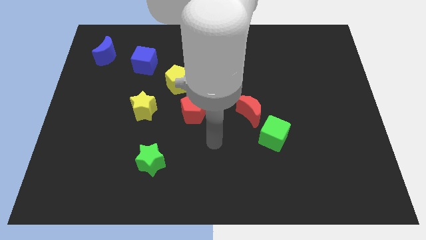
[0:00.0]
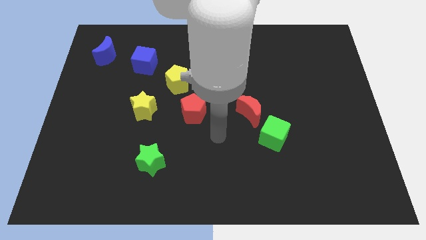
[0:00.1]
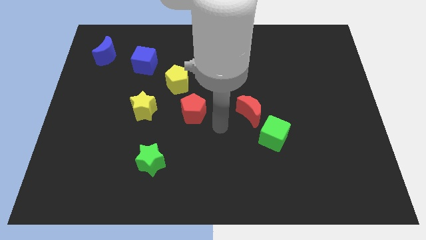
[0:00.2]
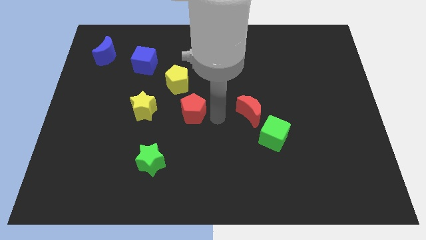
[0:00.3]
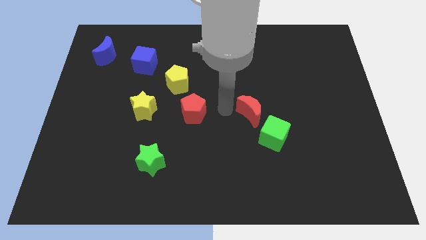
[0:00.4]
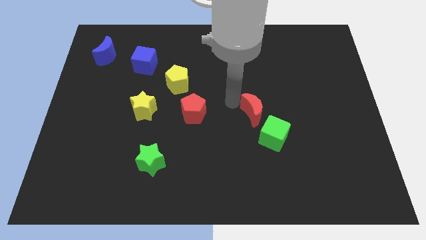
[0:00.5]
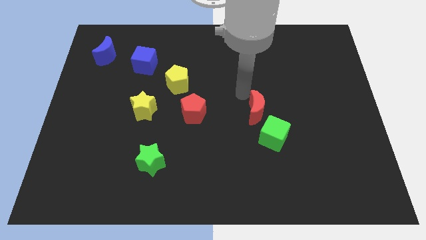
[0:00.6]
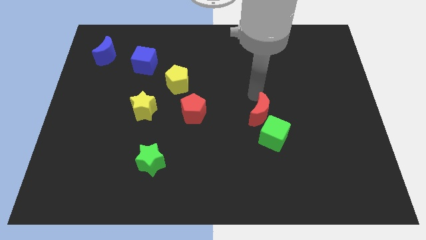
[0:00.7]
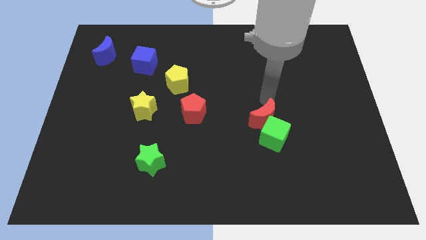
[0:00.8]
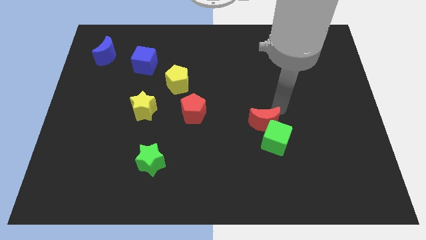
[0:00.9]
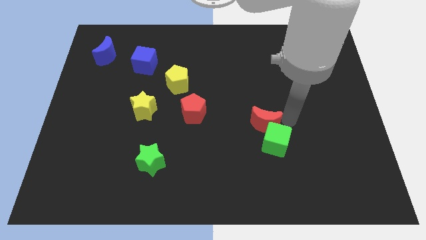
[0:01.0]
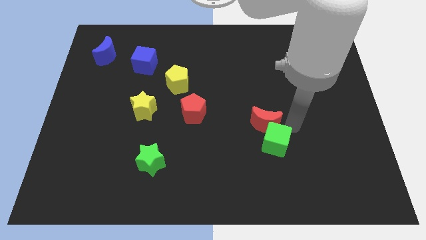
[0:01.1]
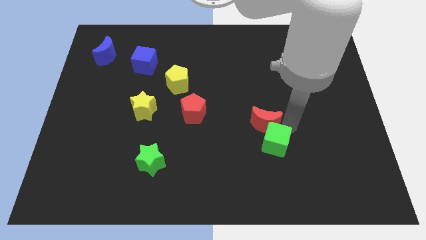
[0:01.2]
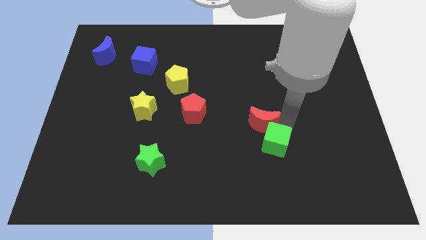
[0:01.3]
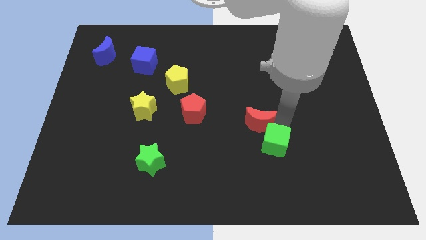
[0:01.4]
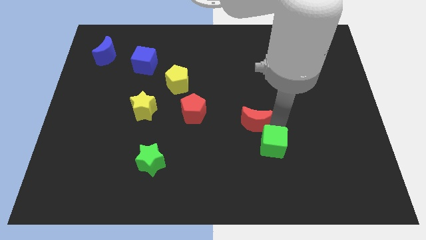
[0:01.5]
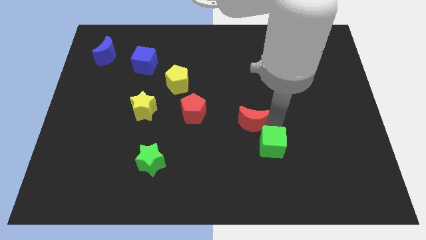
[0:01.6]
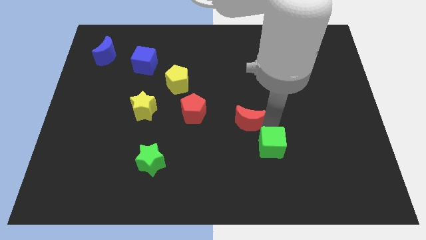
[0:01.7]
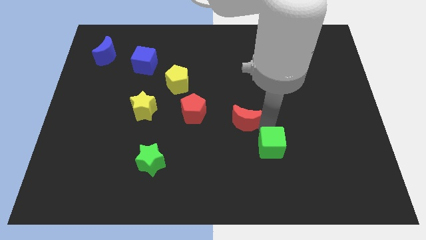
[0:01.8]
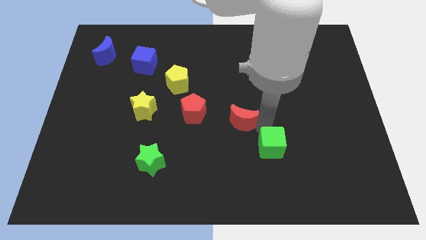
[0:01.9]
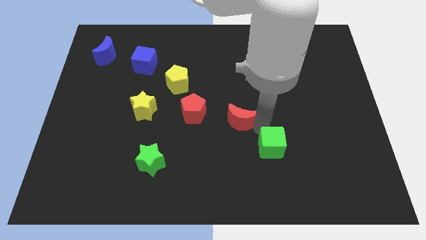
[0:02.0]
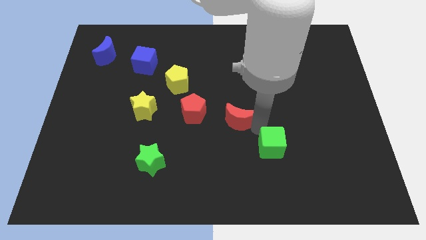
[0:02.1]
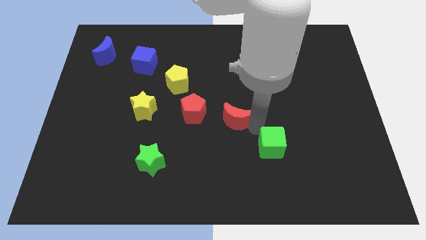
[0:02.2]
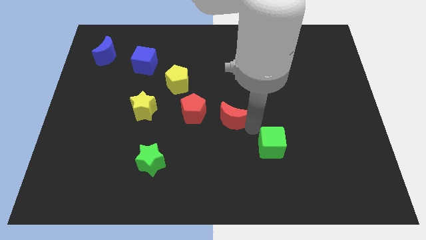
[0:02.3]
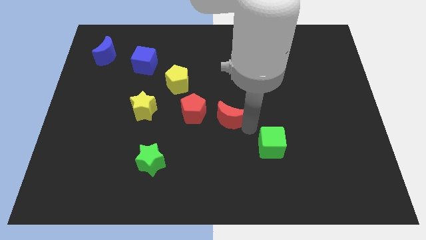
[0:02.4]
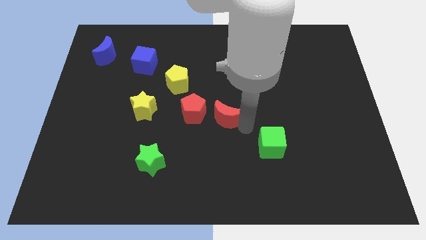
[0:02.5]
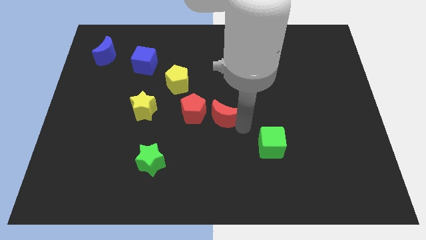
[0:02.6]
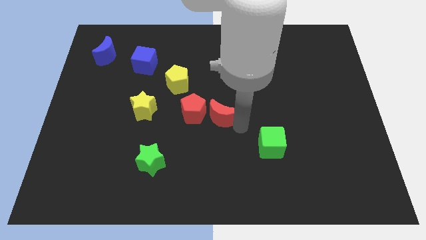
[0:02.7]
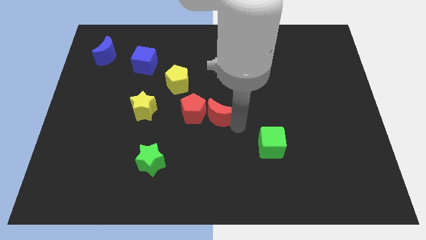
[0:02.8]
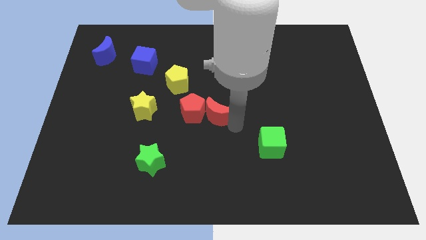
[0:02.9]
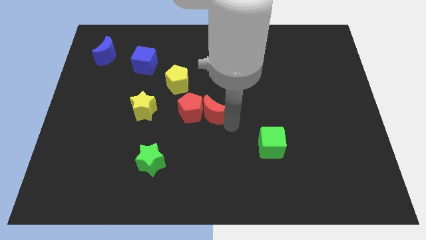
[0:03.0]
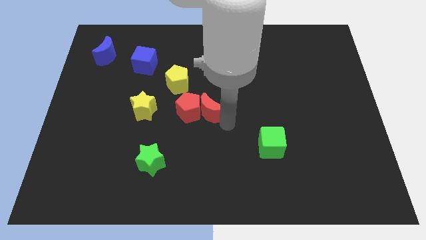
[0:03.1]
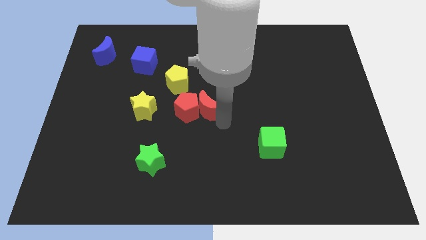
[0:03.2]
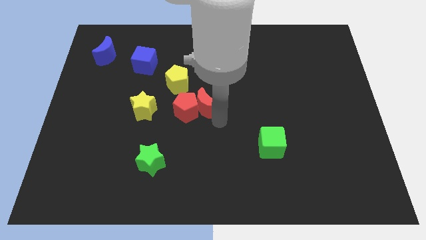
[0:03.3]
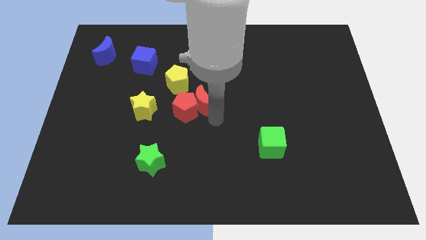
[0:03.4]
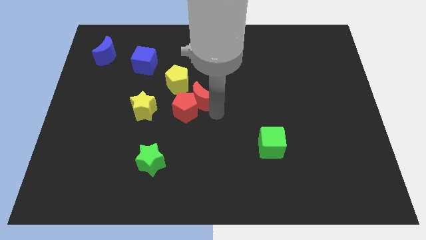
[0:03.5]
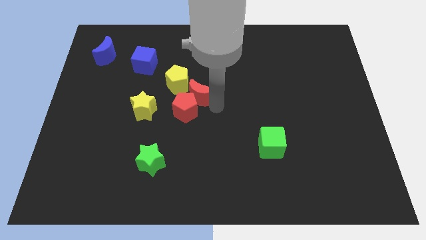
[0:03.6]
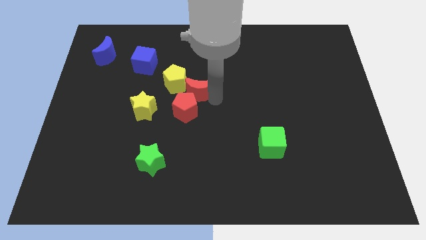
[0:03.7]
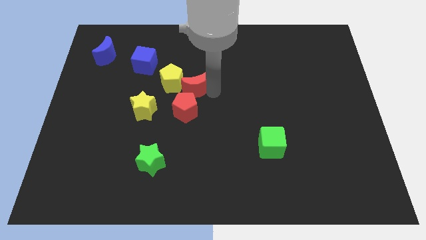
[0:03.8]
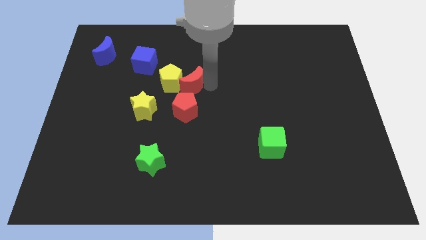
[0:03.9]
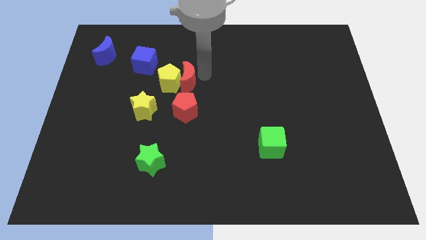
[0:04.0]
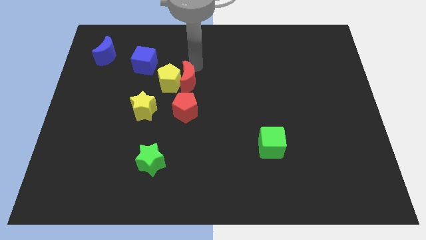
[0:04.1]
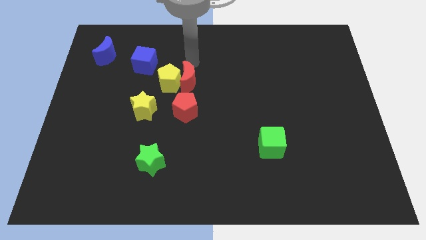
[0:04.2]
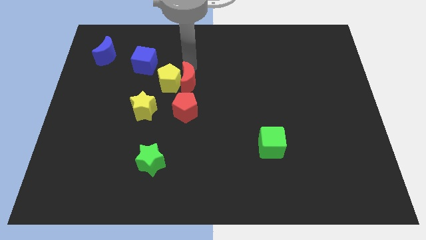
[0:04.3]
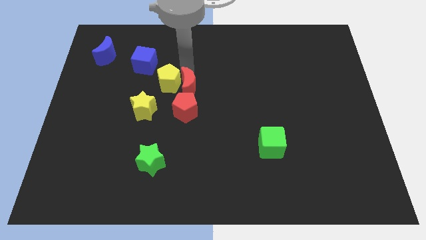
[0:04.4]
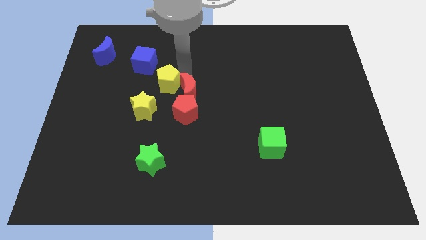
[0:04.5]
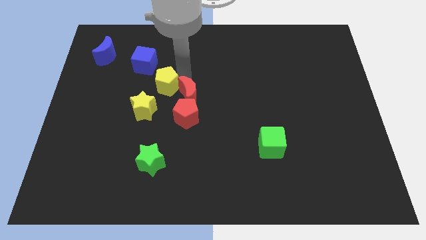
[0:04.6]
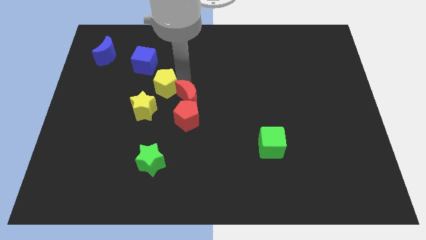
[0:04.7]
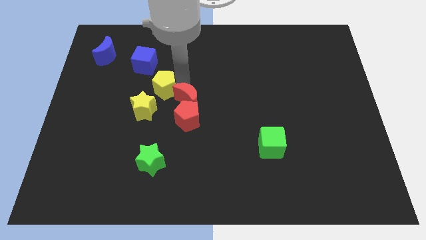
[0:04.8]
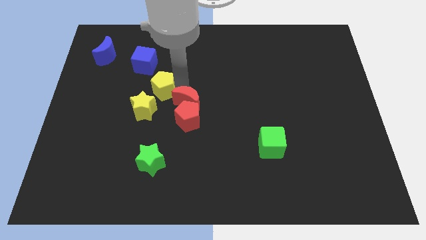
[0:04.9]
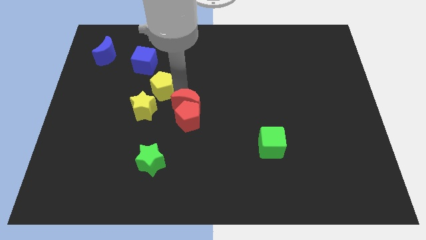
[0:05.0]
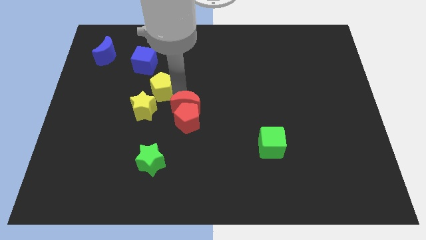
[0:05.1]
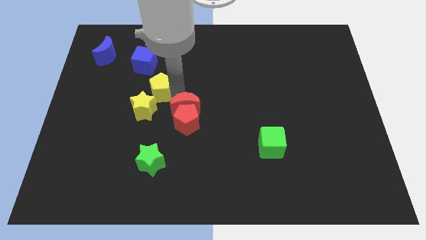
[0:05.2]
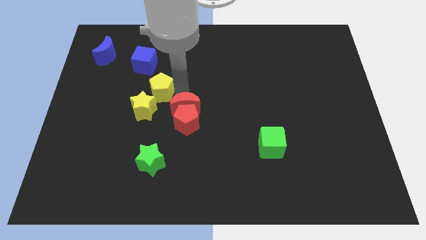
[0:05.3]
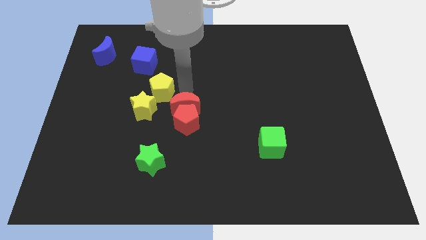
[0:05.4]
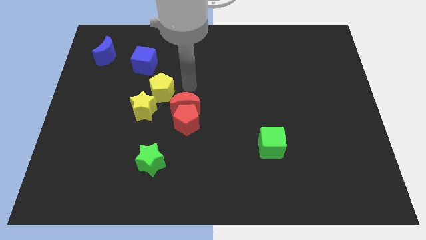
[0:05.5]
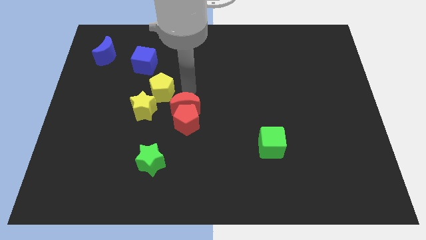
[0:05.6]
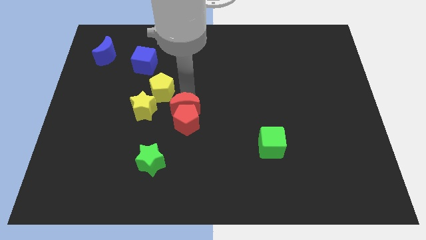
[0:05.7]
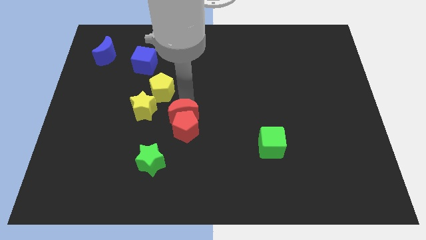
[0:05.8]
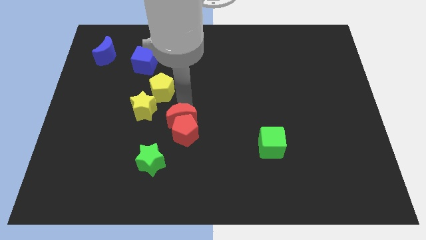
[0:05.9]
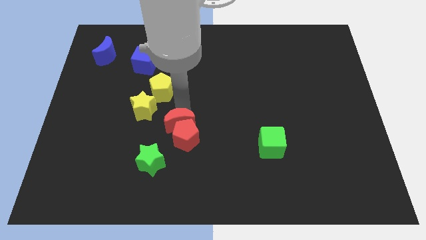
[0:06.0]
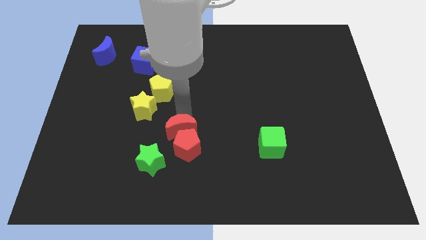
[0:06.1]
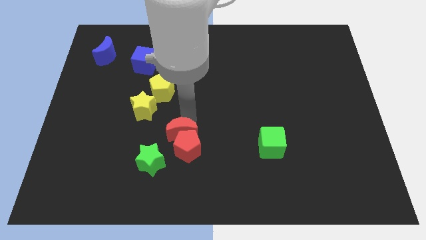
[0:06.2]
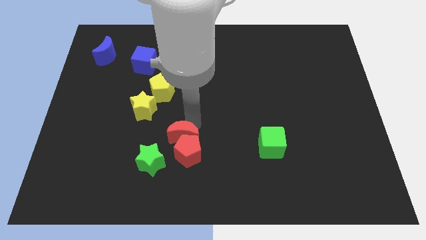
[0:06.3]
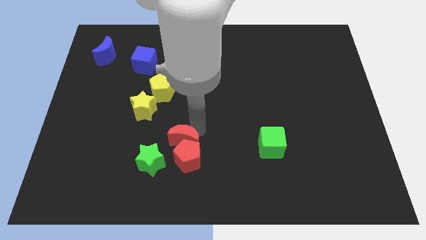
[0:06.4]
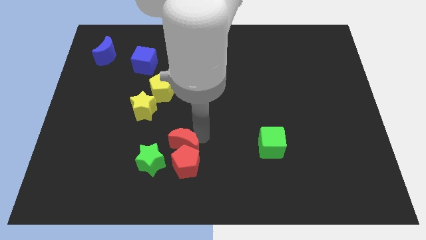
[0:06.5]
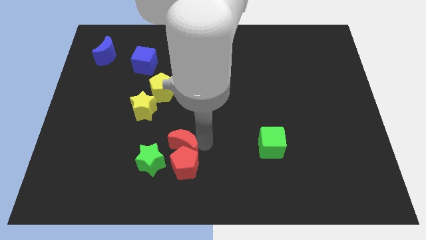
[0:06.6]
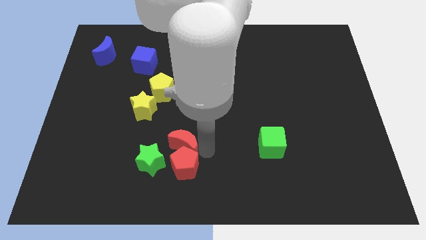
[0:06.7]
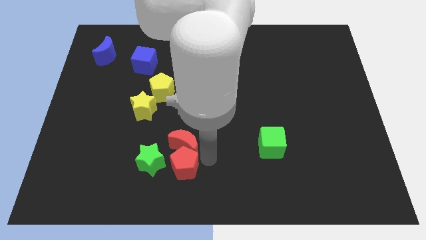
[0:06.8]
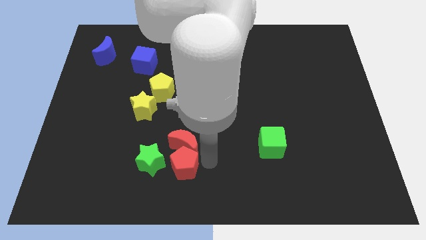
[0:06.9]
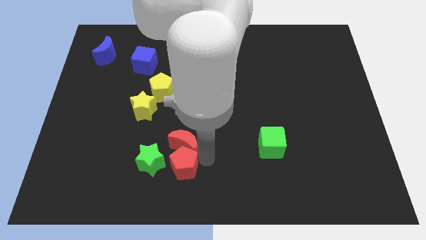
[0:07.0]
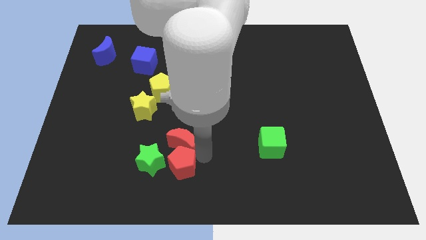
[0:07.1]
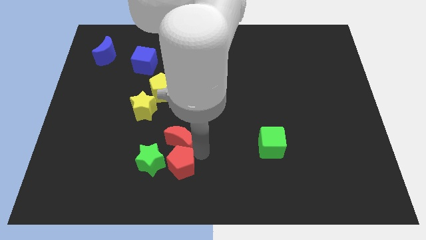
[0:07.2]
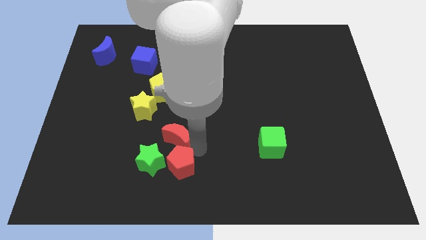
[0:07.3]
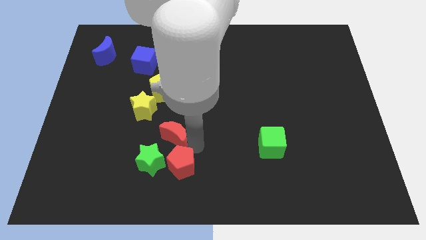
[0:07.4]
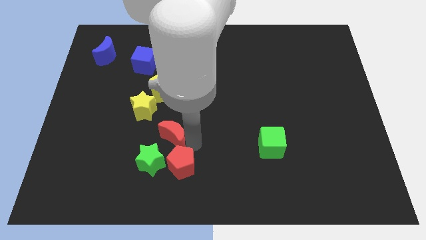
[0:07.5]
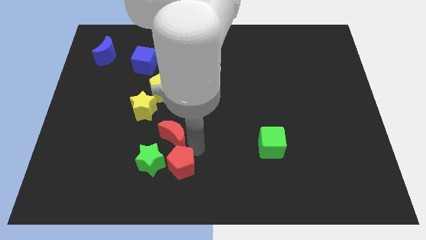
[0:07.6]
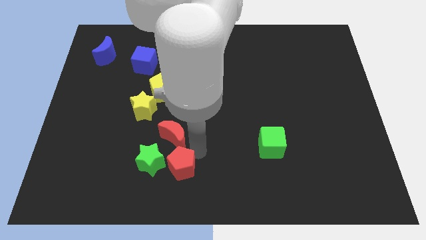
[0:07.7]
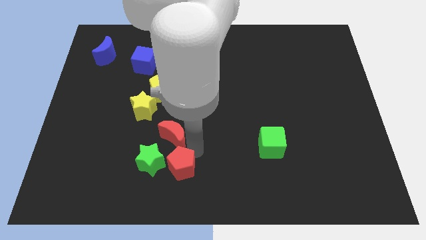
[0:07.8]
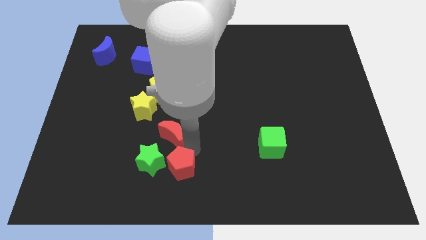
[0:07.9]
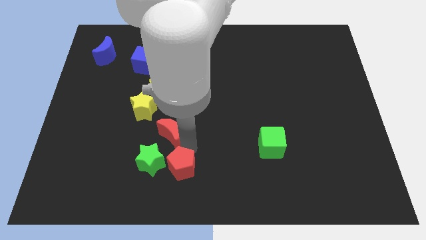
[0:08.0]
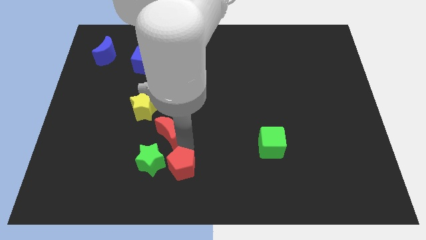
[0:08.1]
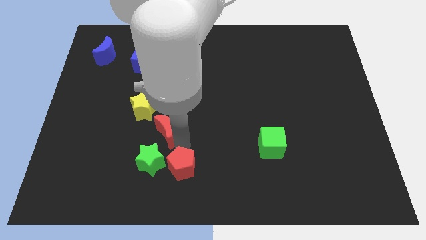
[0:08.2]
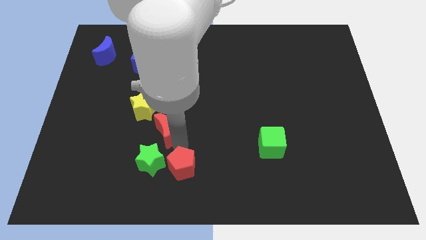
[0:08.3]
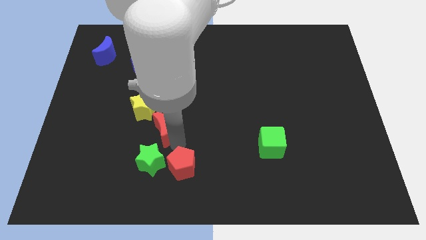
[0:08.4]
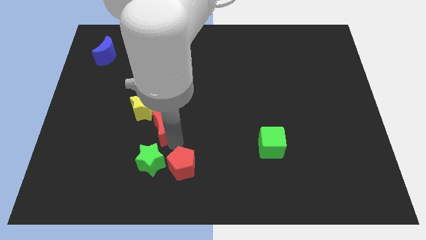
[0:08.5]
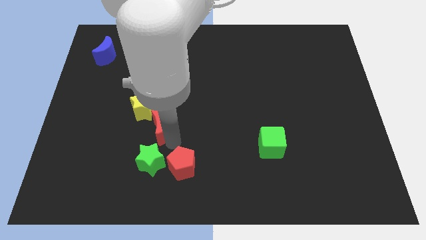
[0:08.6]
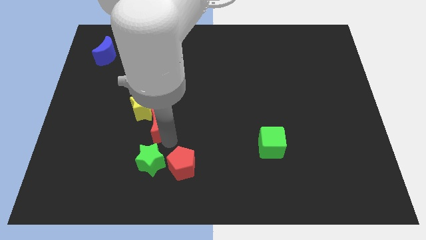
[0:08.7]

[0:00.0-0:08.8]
slide the red moon to the left
